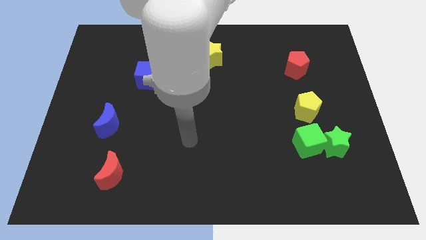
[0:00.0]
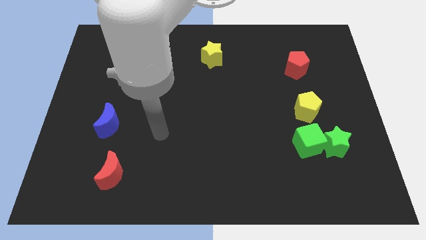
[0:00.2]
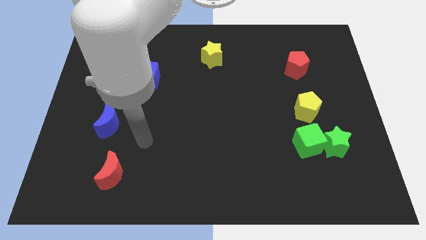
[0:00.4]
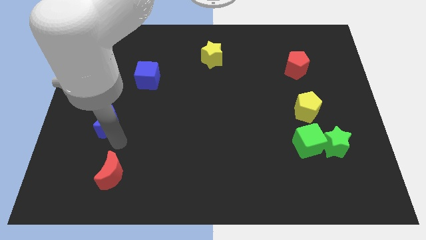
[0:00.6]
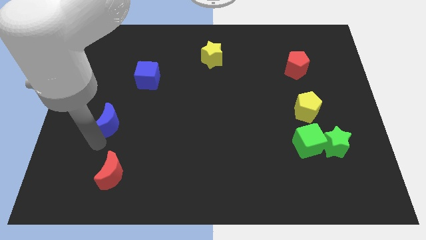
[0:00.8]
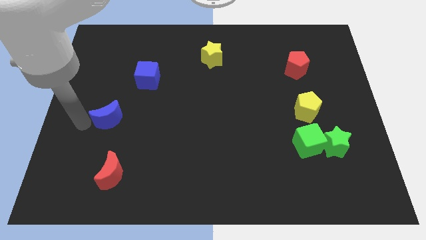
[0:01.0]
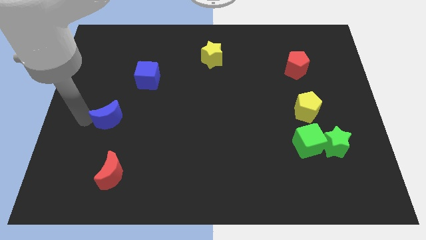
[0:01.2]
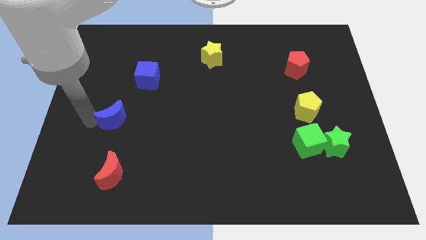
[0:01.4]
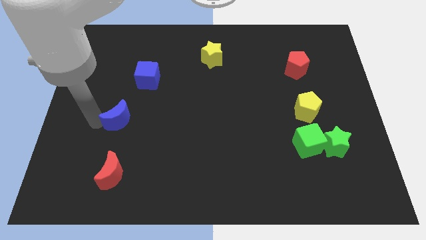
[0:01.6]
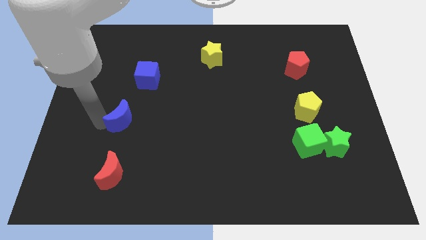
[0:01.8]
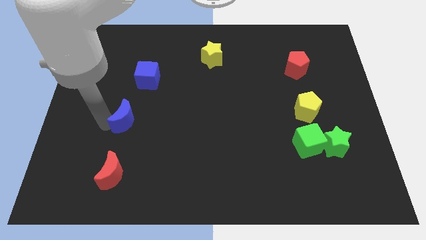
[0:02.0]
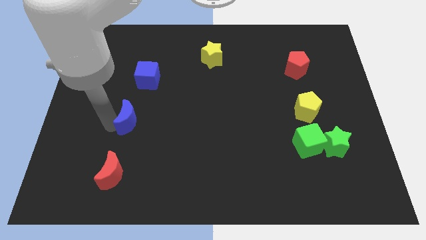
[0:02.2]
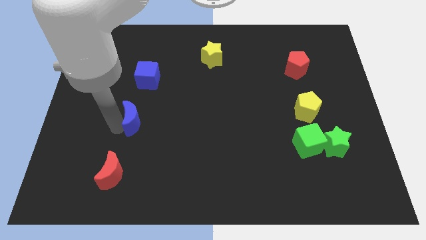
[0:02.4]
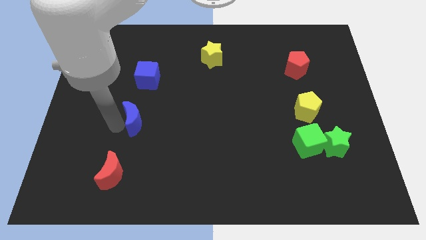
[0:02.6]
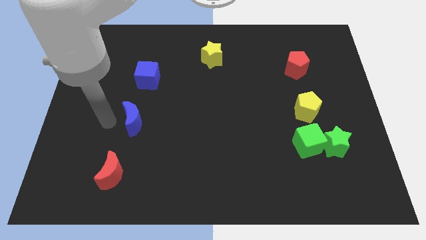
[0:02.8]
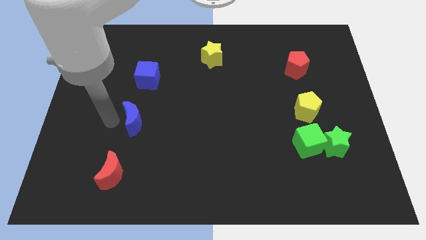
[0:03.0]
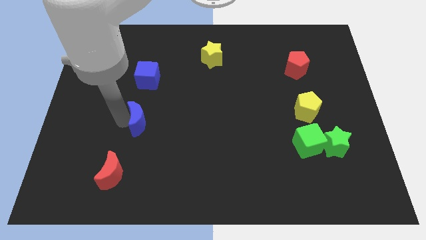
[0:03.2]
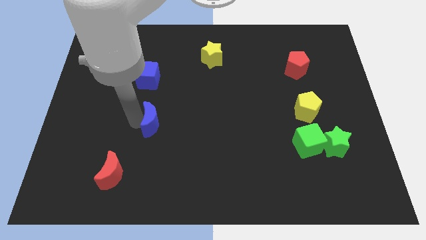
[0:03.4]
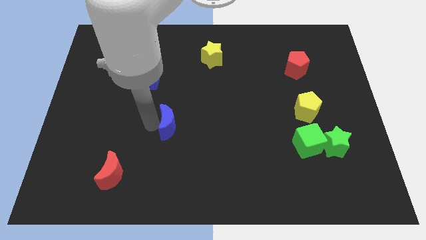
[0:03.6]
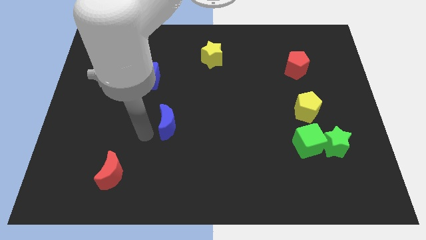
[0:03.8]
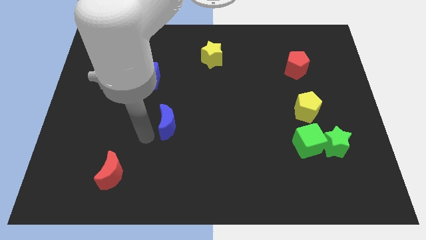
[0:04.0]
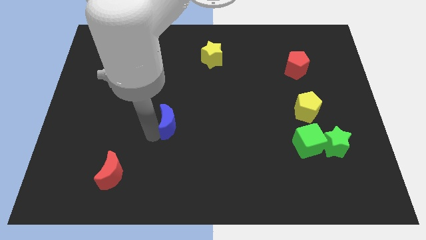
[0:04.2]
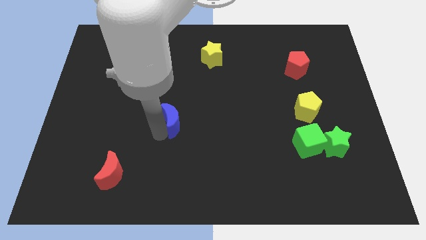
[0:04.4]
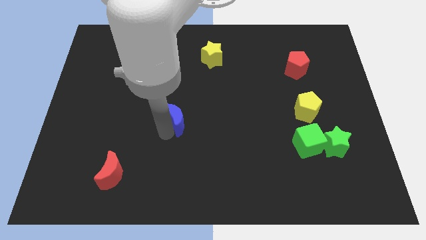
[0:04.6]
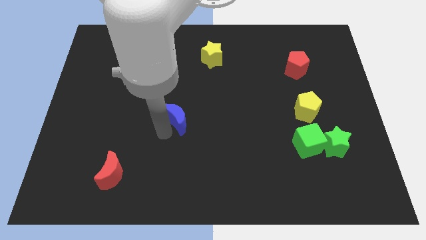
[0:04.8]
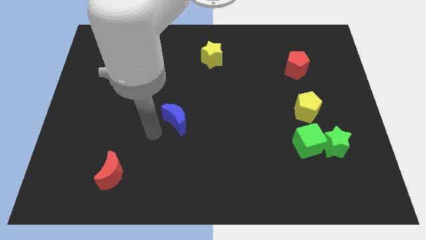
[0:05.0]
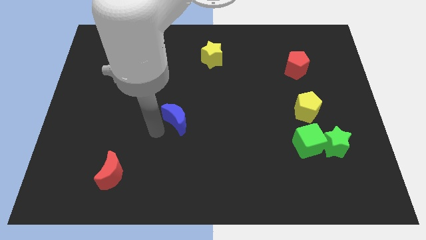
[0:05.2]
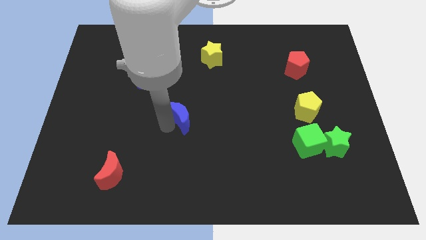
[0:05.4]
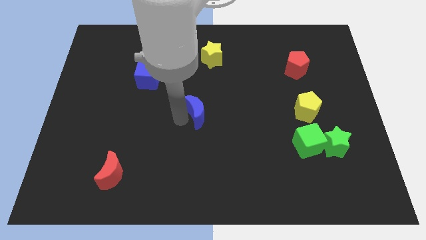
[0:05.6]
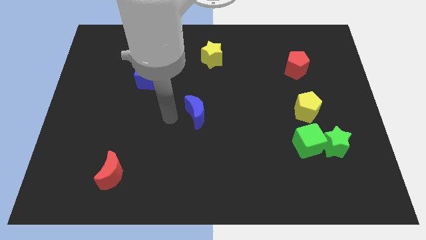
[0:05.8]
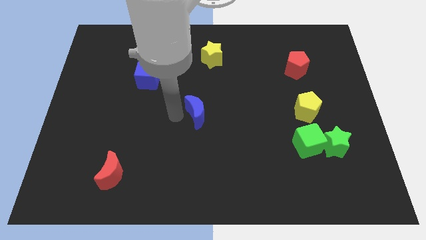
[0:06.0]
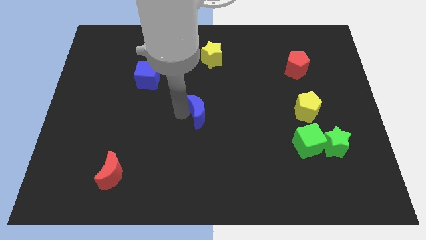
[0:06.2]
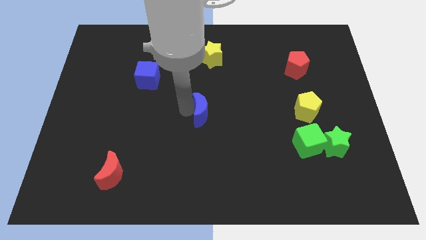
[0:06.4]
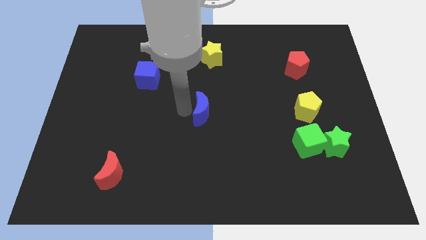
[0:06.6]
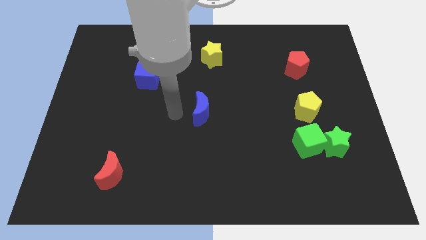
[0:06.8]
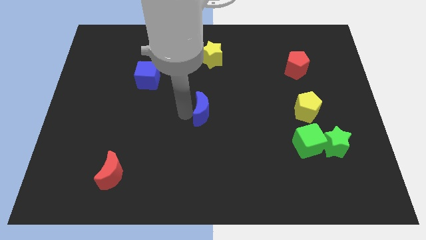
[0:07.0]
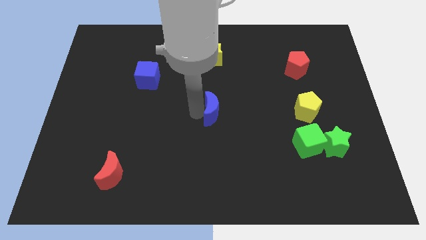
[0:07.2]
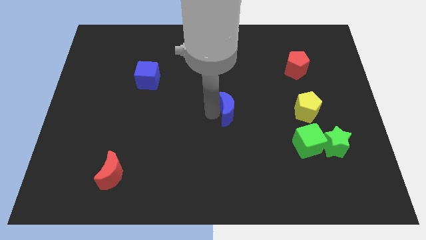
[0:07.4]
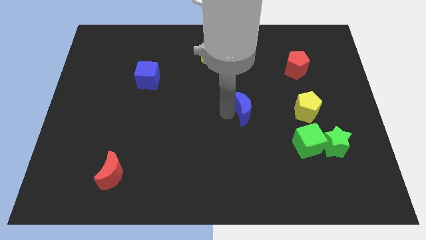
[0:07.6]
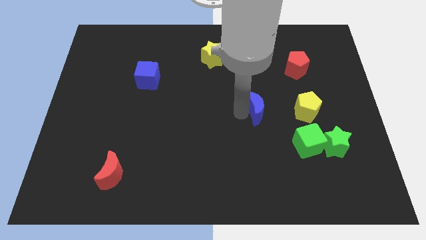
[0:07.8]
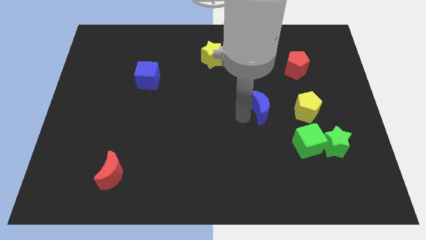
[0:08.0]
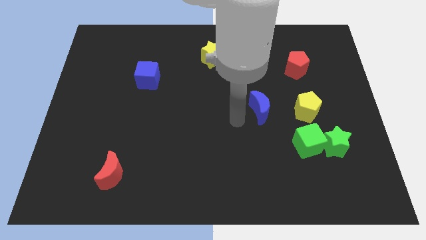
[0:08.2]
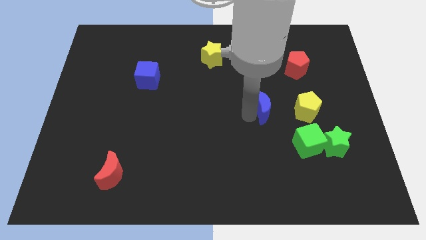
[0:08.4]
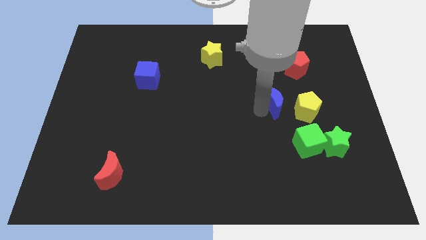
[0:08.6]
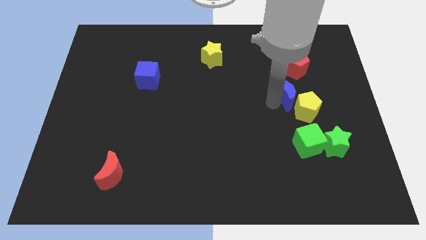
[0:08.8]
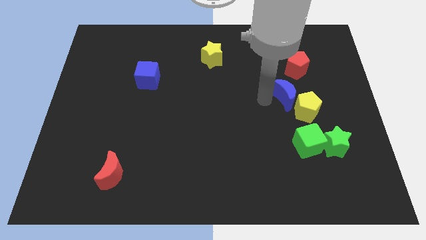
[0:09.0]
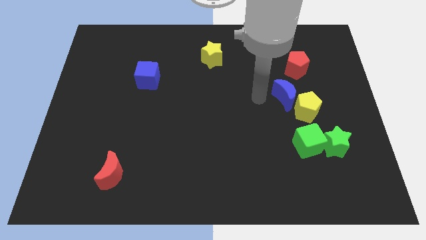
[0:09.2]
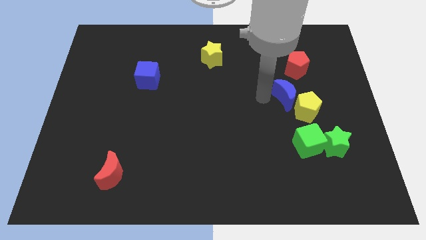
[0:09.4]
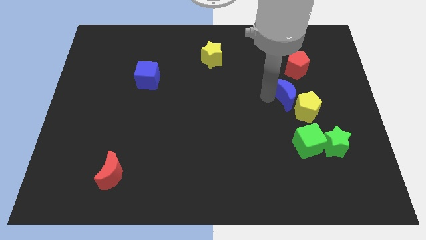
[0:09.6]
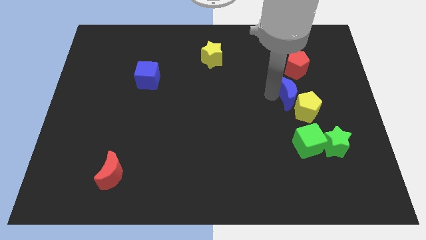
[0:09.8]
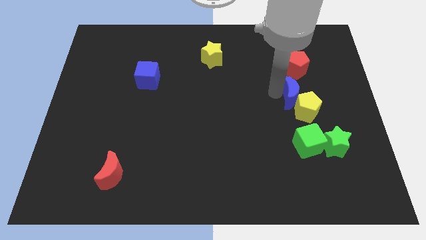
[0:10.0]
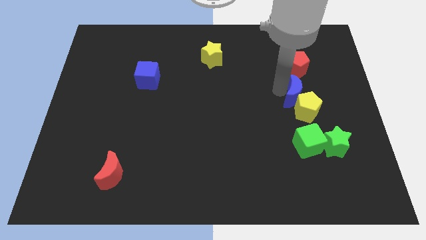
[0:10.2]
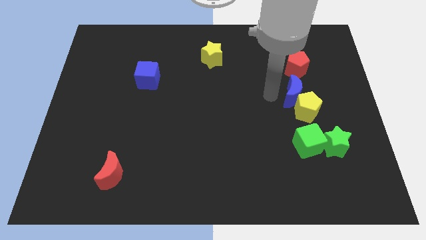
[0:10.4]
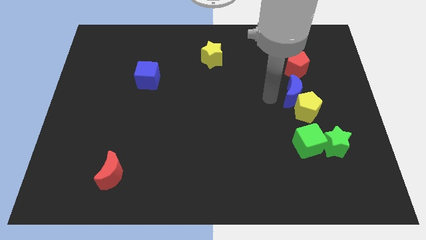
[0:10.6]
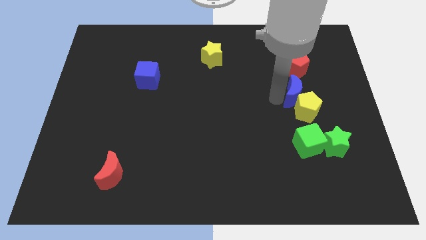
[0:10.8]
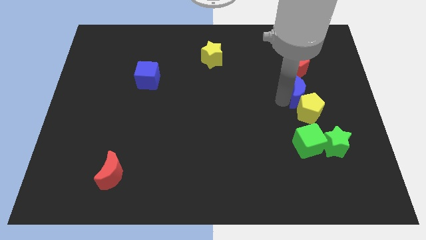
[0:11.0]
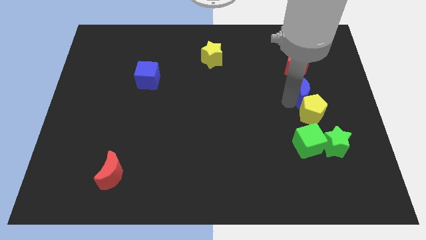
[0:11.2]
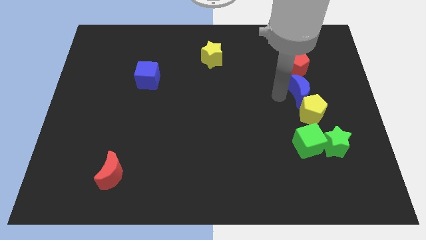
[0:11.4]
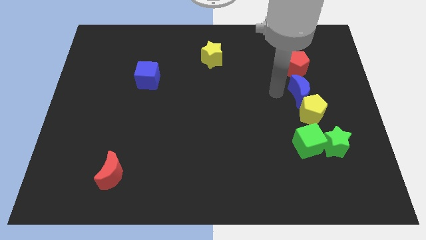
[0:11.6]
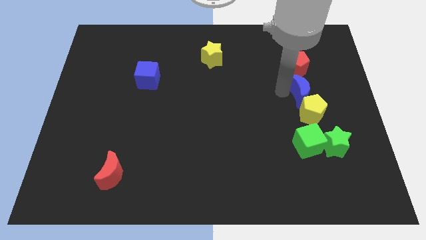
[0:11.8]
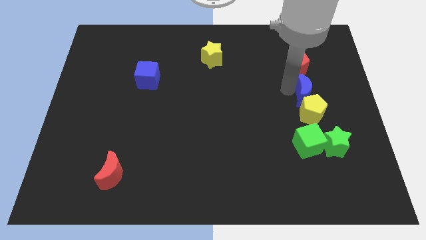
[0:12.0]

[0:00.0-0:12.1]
put the blue moon diagonally up and to the right of the yellow pentagon

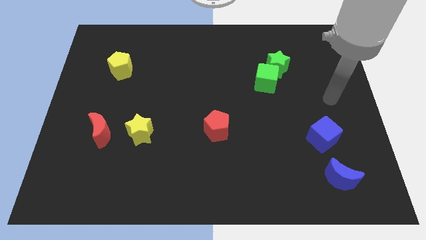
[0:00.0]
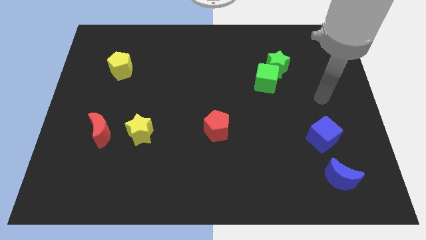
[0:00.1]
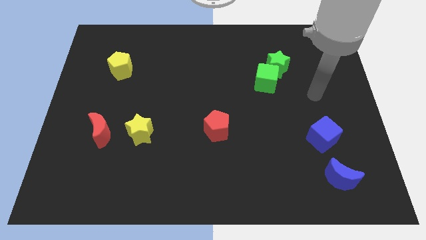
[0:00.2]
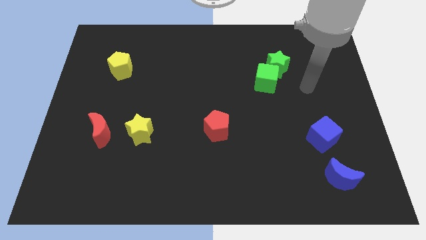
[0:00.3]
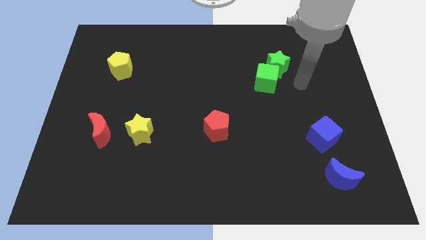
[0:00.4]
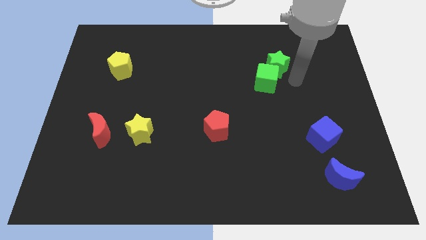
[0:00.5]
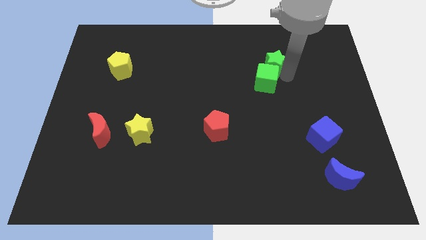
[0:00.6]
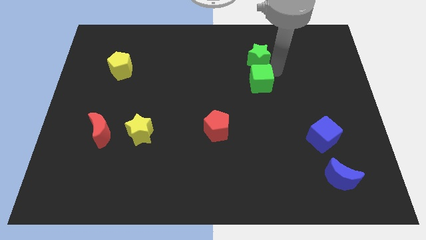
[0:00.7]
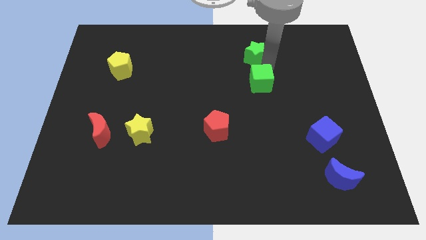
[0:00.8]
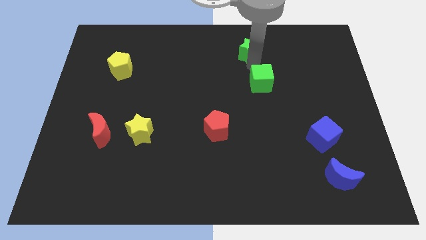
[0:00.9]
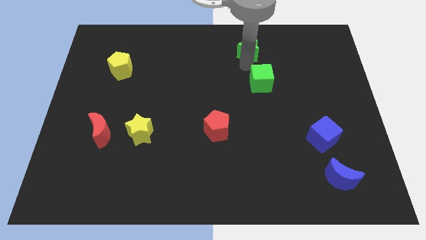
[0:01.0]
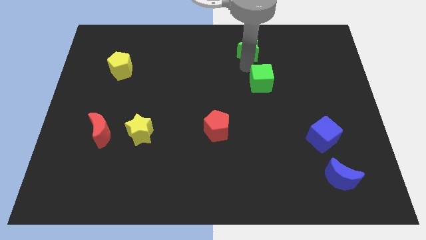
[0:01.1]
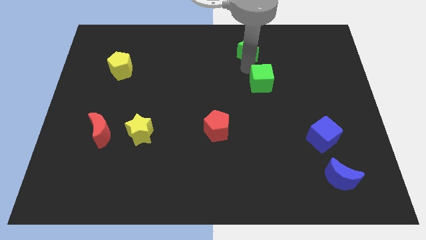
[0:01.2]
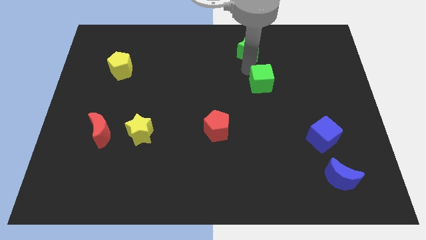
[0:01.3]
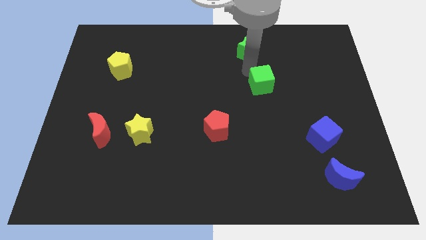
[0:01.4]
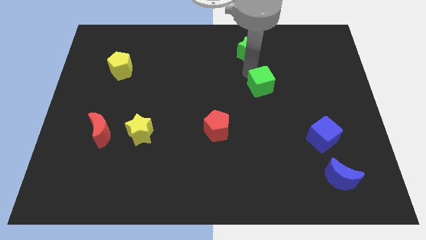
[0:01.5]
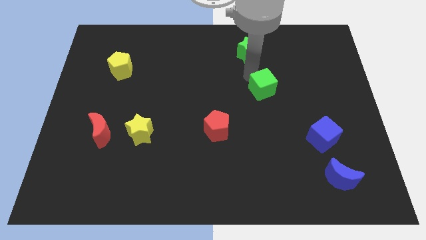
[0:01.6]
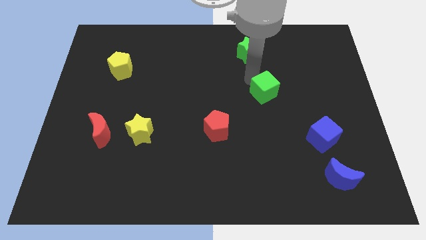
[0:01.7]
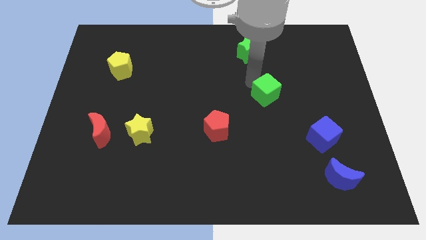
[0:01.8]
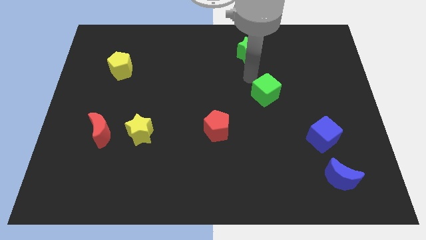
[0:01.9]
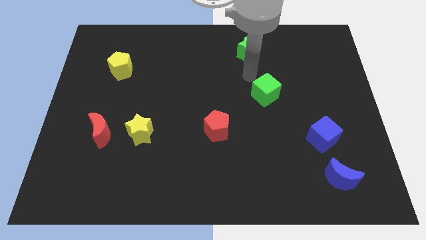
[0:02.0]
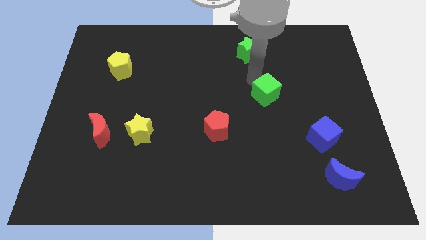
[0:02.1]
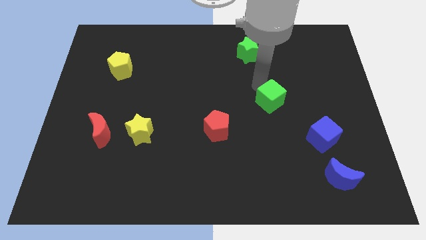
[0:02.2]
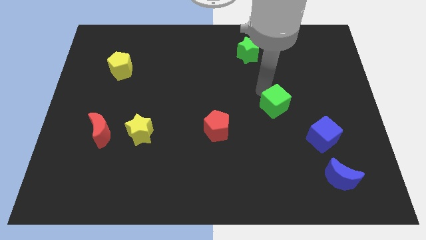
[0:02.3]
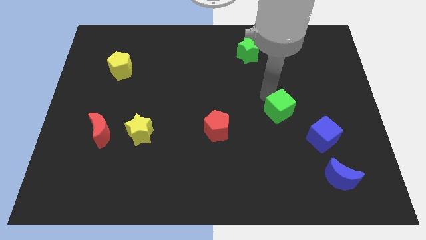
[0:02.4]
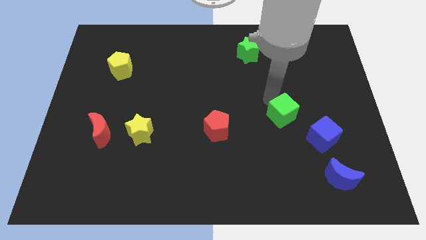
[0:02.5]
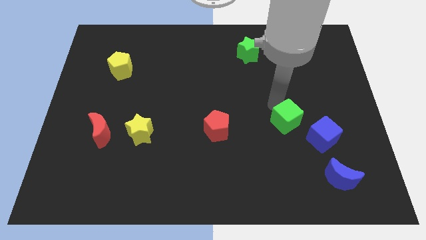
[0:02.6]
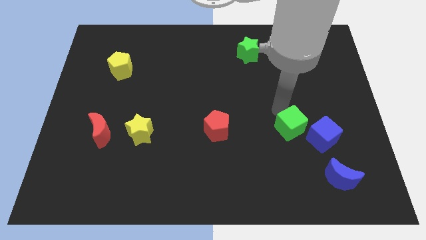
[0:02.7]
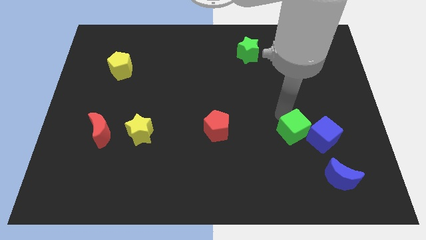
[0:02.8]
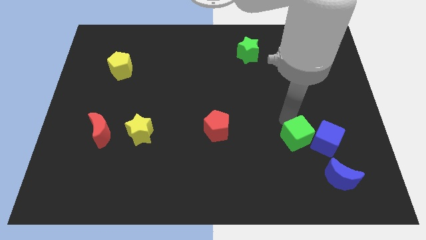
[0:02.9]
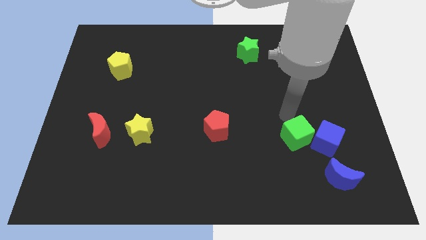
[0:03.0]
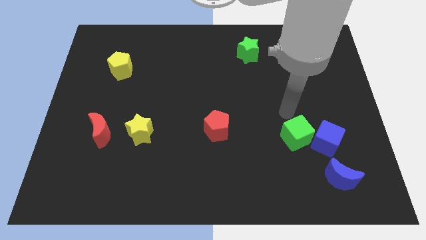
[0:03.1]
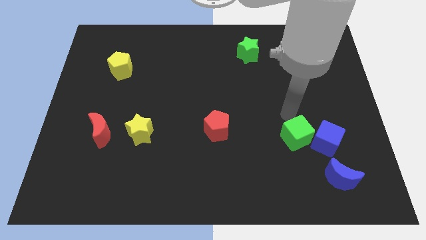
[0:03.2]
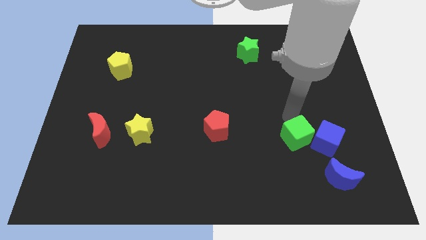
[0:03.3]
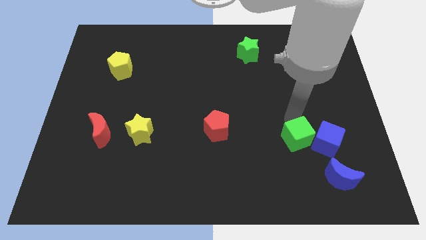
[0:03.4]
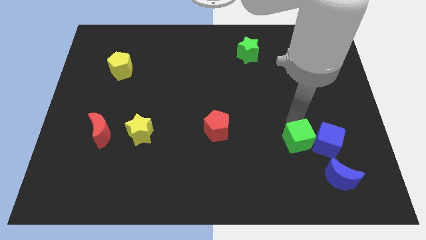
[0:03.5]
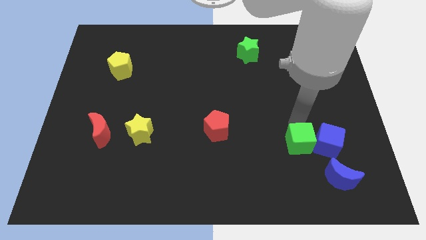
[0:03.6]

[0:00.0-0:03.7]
slide the green cube diagonally down and to the left of the blue cube
